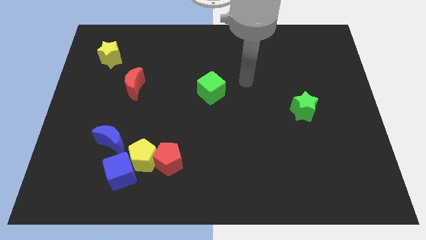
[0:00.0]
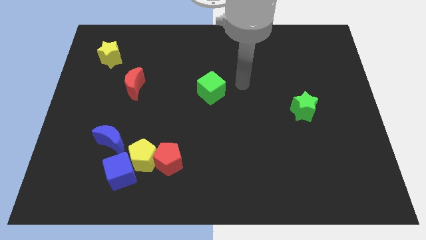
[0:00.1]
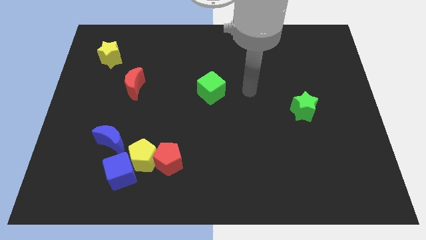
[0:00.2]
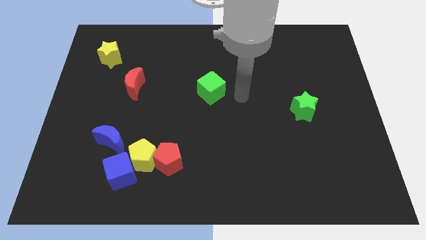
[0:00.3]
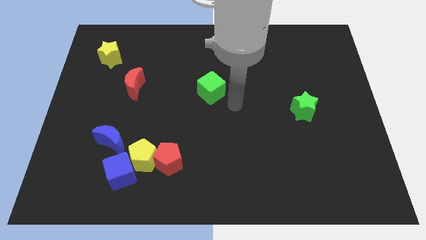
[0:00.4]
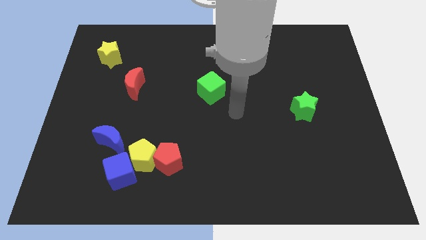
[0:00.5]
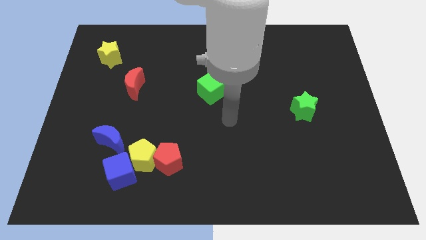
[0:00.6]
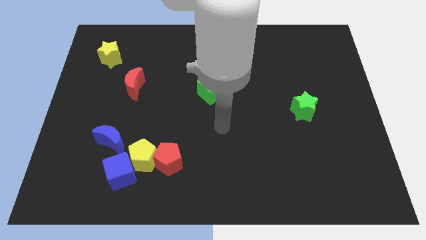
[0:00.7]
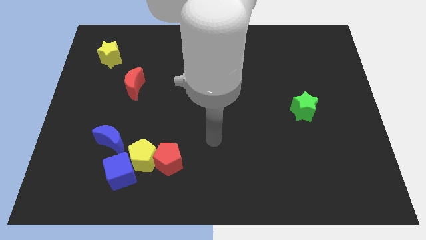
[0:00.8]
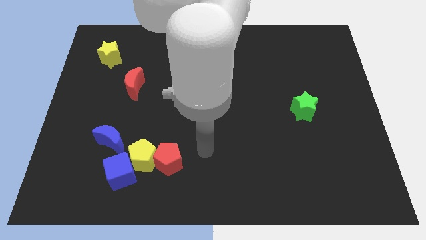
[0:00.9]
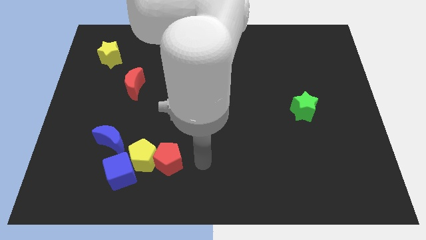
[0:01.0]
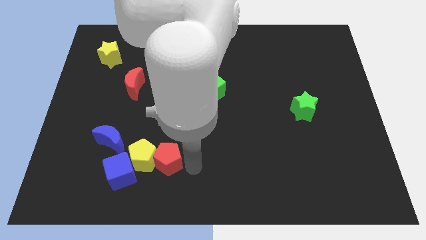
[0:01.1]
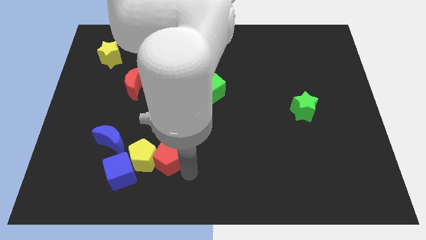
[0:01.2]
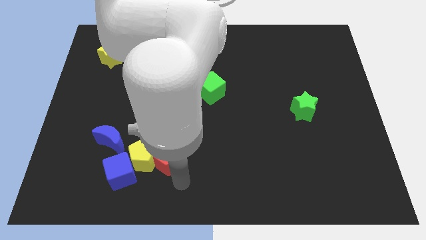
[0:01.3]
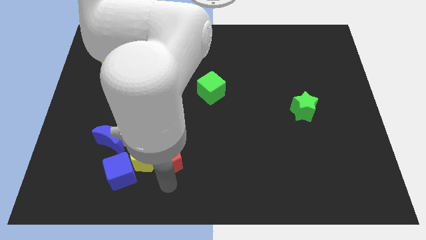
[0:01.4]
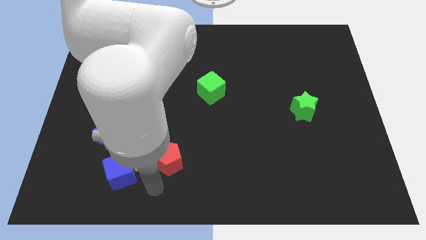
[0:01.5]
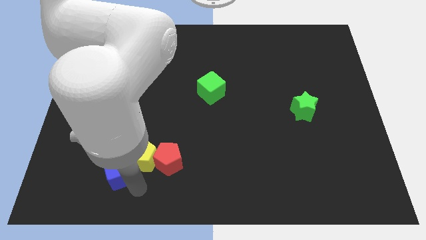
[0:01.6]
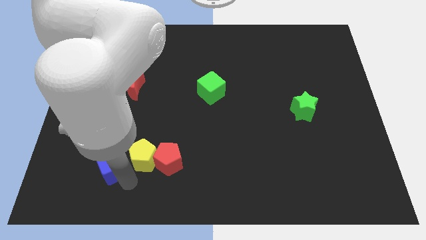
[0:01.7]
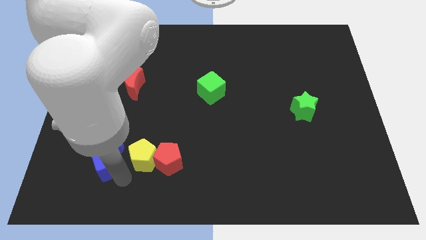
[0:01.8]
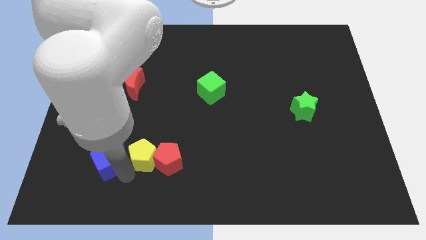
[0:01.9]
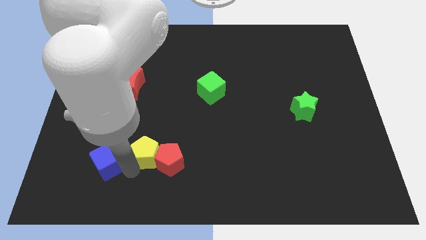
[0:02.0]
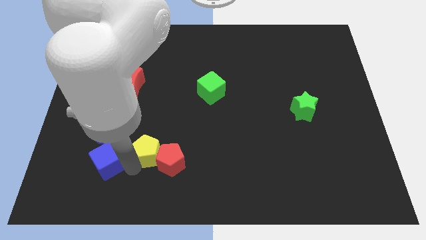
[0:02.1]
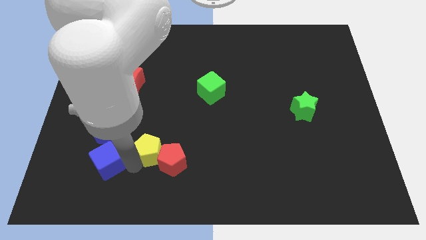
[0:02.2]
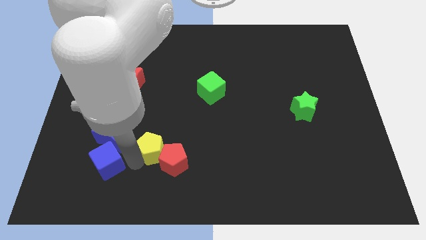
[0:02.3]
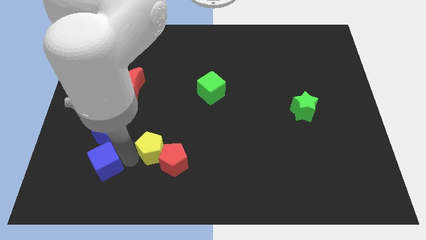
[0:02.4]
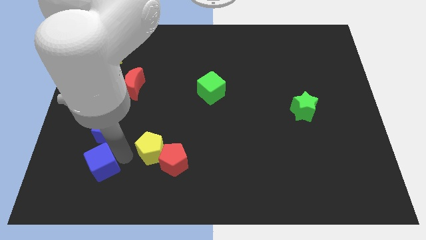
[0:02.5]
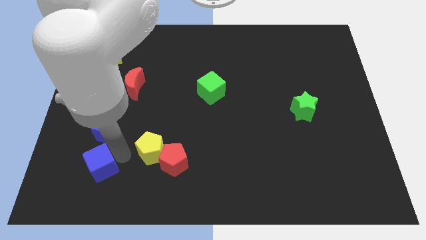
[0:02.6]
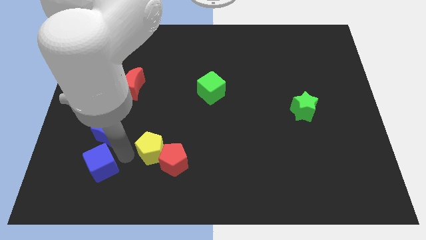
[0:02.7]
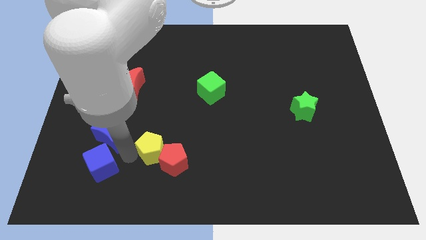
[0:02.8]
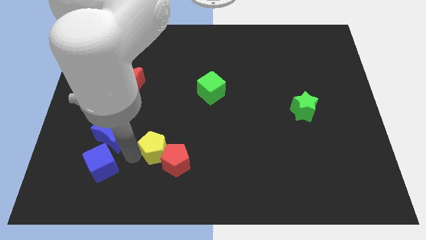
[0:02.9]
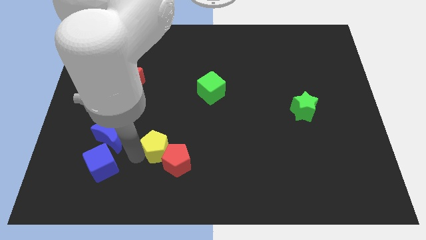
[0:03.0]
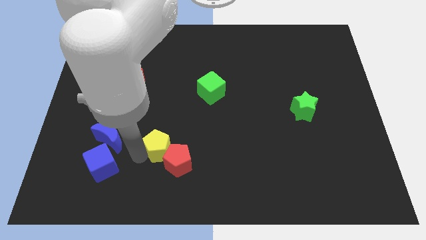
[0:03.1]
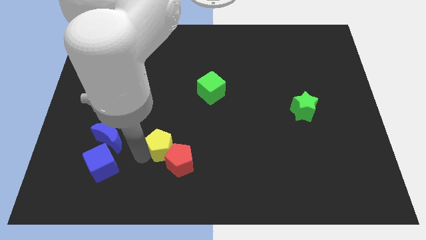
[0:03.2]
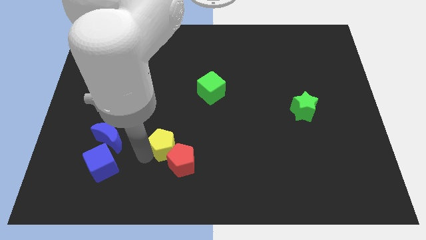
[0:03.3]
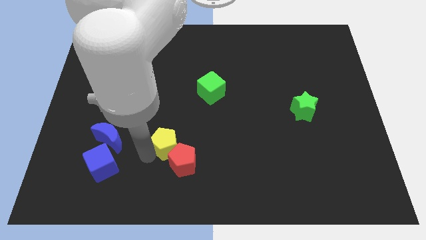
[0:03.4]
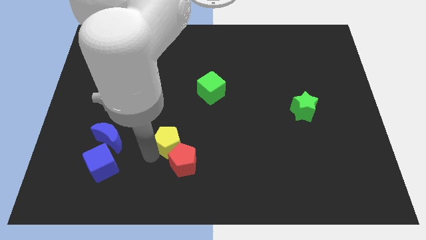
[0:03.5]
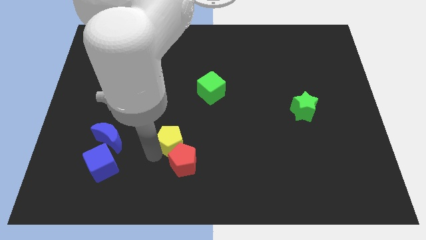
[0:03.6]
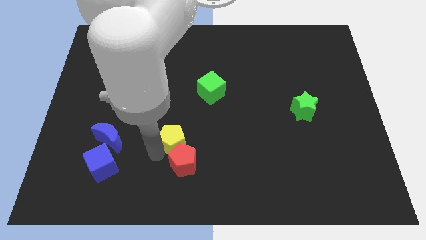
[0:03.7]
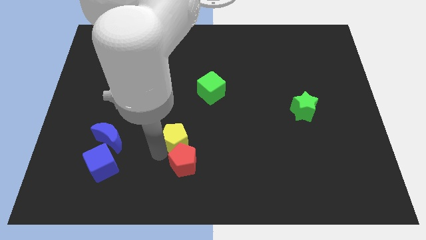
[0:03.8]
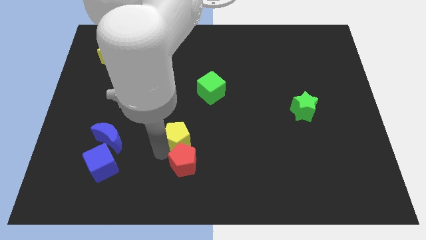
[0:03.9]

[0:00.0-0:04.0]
separate the yellow pentagon from the group

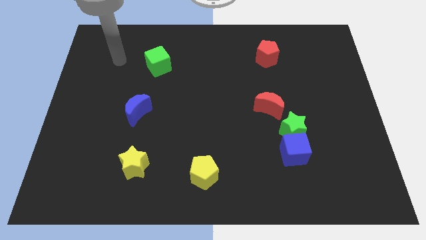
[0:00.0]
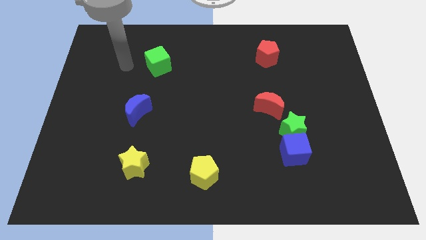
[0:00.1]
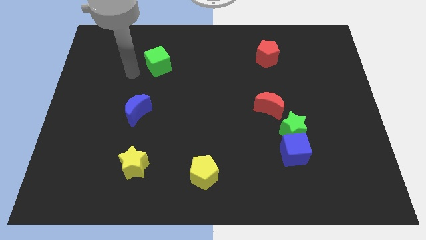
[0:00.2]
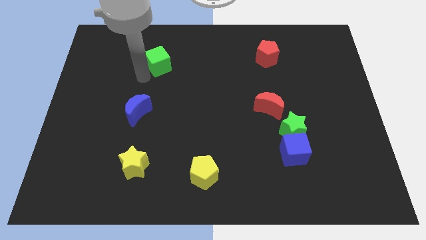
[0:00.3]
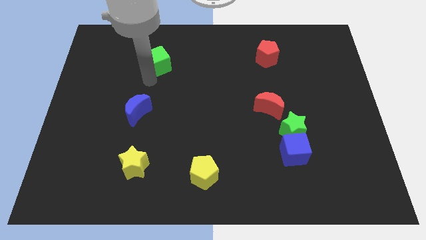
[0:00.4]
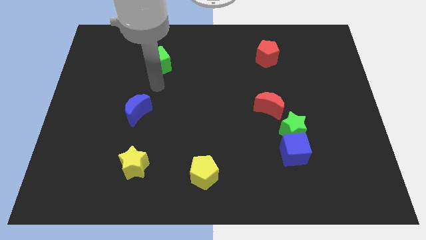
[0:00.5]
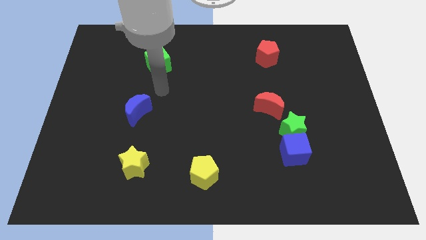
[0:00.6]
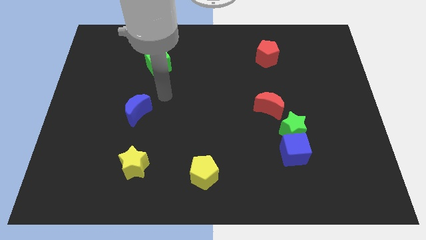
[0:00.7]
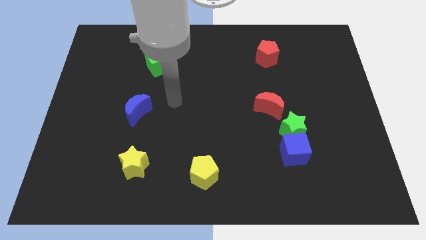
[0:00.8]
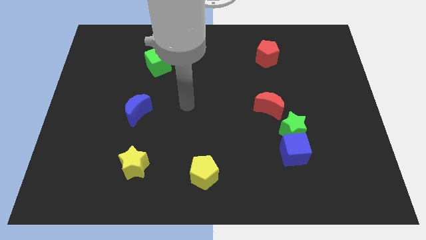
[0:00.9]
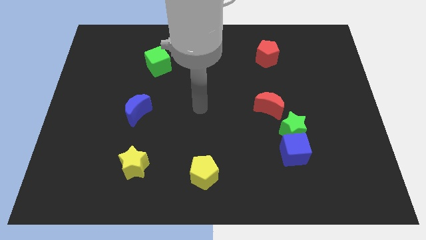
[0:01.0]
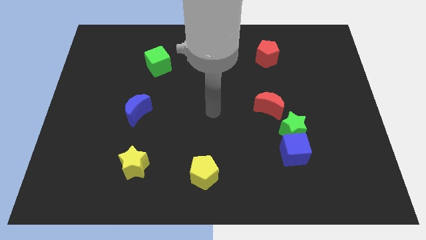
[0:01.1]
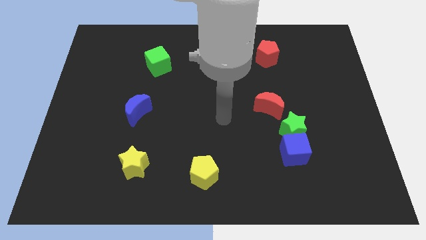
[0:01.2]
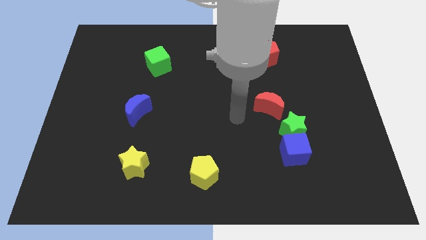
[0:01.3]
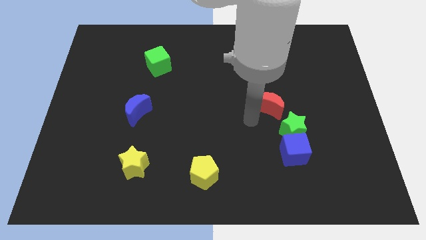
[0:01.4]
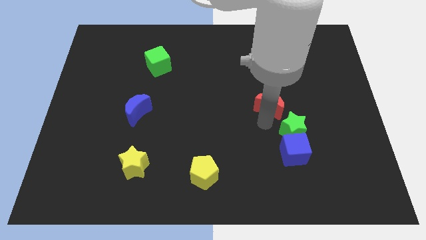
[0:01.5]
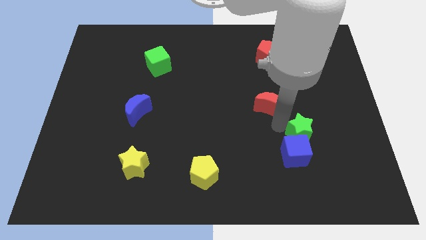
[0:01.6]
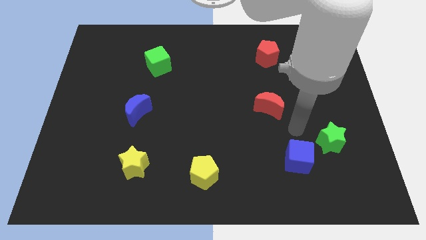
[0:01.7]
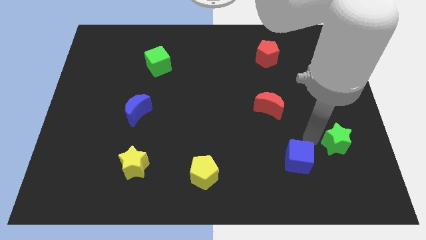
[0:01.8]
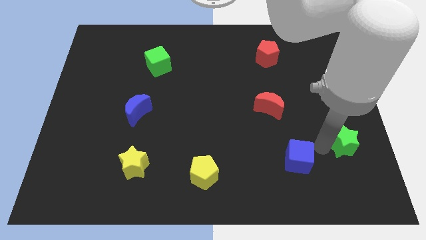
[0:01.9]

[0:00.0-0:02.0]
pull the blue cube apart from the green star

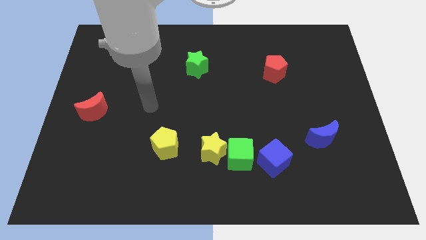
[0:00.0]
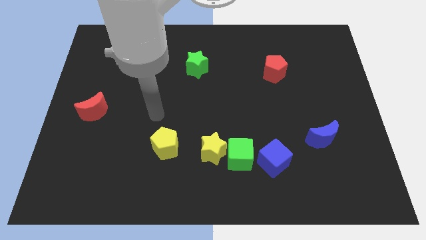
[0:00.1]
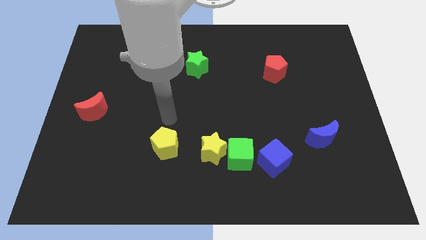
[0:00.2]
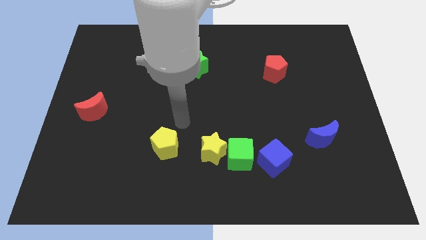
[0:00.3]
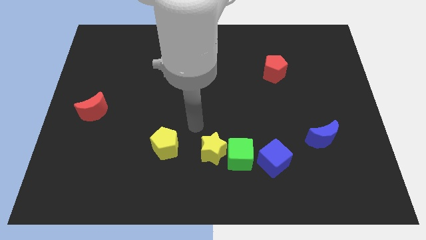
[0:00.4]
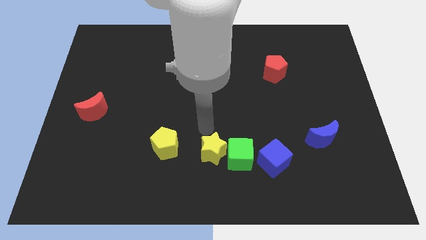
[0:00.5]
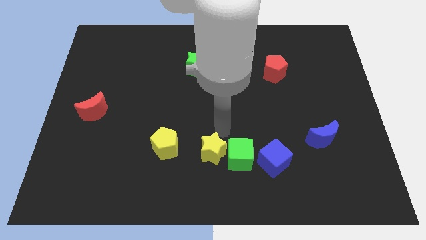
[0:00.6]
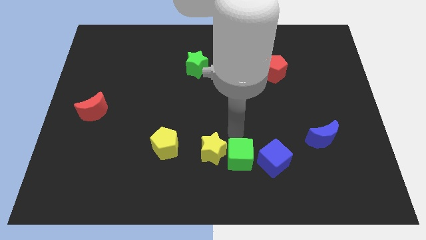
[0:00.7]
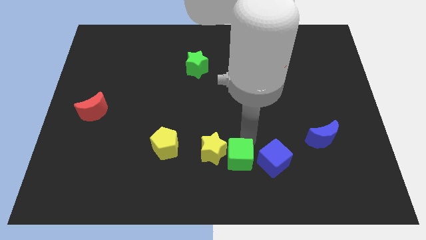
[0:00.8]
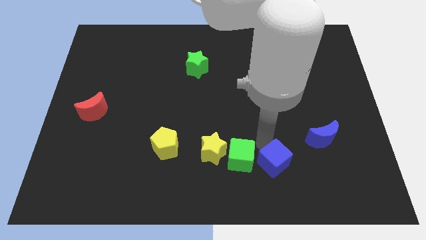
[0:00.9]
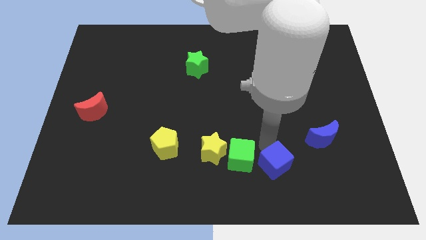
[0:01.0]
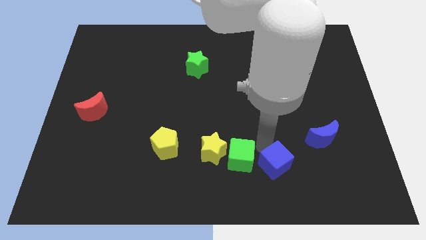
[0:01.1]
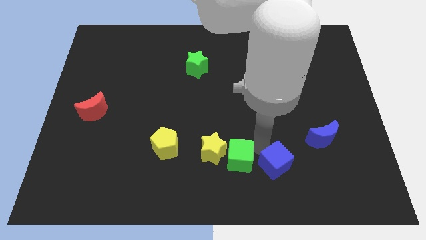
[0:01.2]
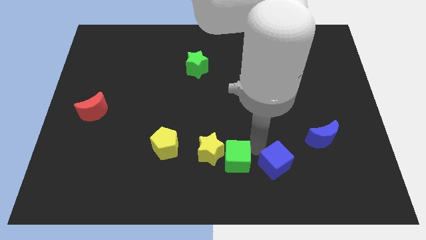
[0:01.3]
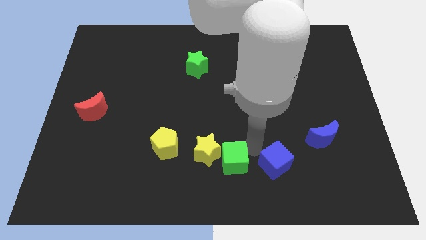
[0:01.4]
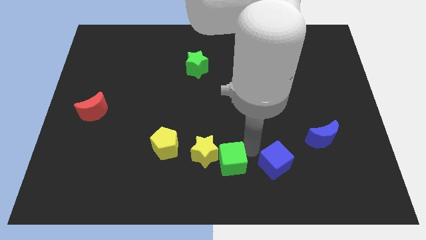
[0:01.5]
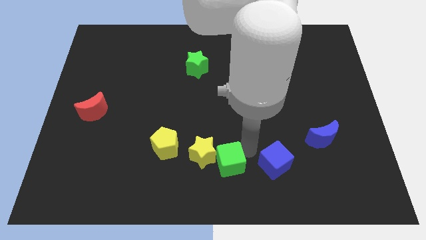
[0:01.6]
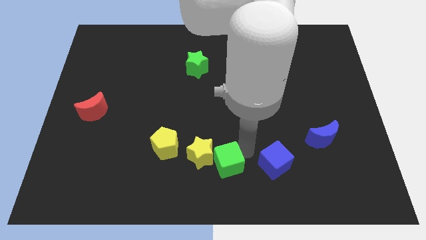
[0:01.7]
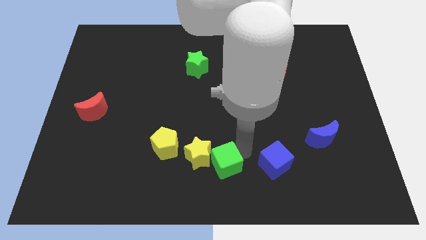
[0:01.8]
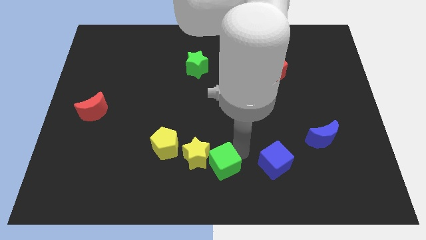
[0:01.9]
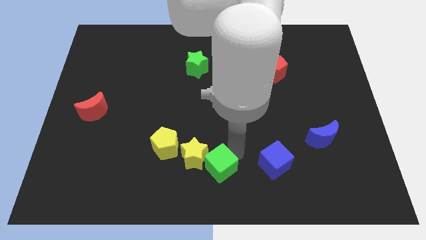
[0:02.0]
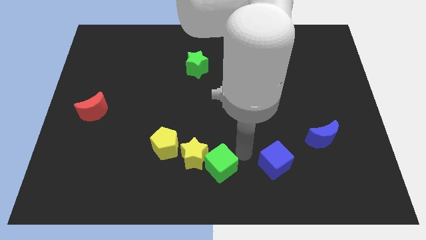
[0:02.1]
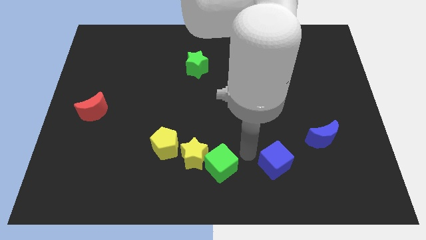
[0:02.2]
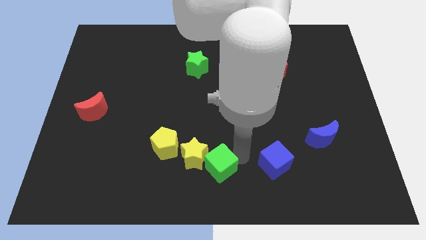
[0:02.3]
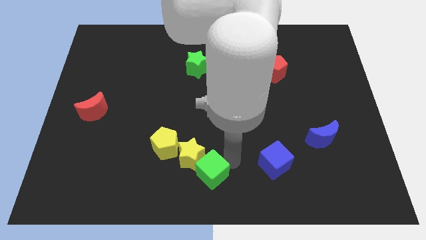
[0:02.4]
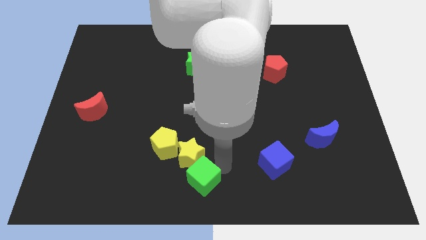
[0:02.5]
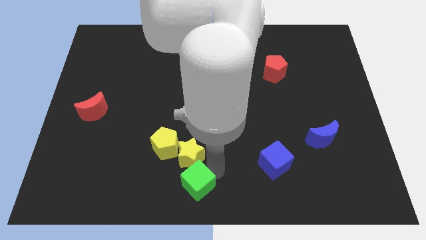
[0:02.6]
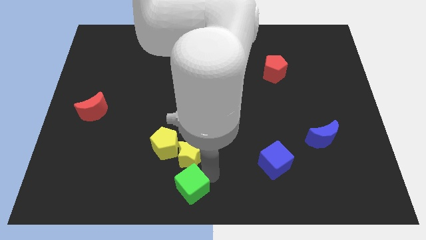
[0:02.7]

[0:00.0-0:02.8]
pull the green cube apart from the yellow star and blue cube

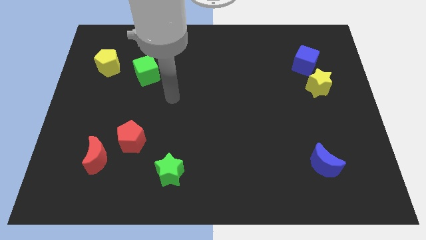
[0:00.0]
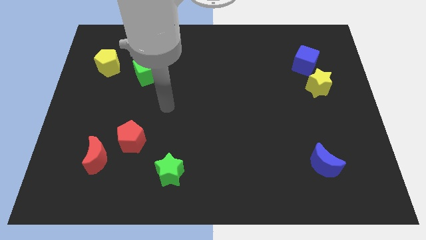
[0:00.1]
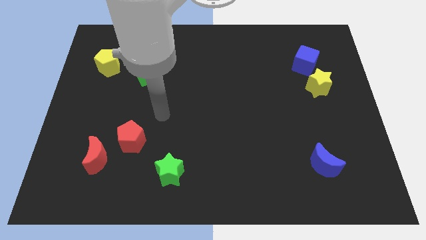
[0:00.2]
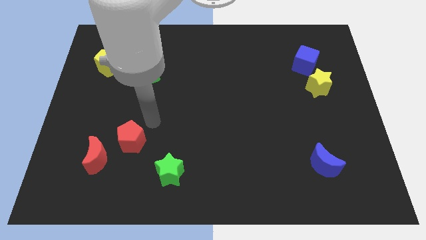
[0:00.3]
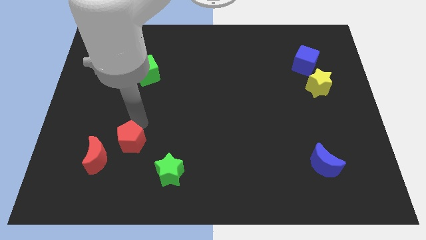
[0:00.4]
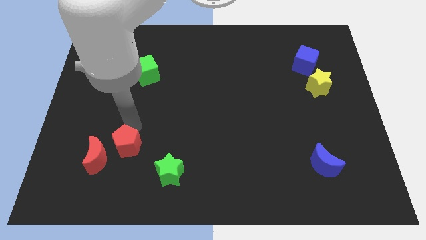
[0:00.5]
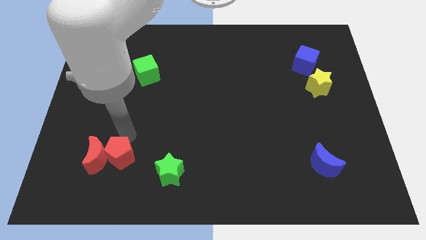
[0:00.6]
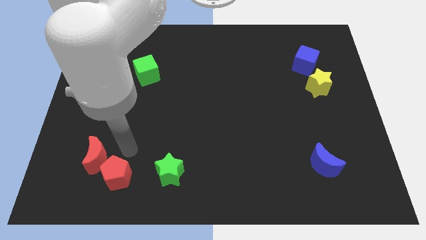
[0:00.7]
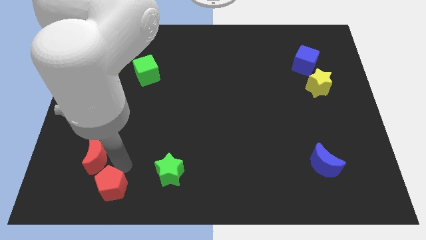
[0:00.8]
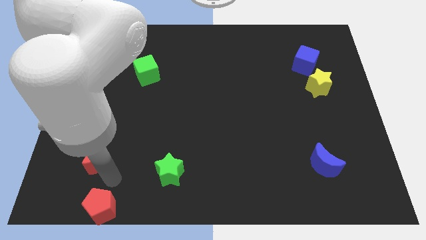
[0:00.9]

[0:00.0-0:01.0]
separate the red moon from the red pentagon
